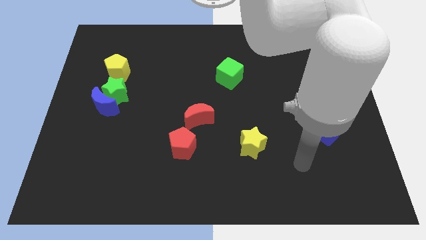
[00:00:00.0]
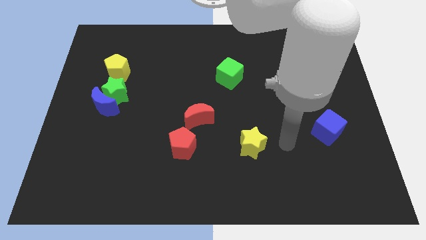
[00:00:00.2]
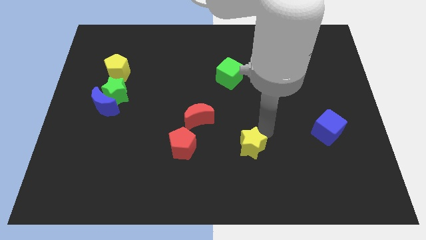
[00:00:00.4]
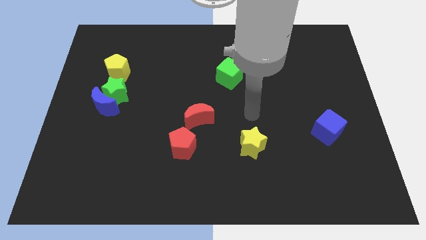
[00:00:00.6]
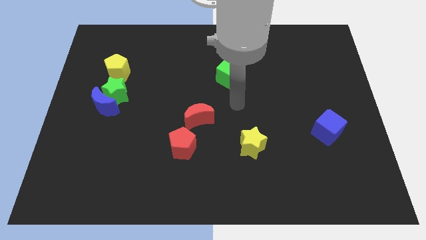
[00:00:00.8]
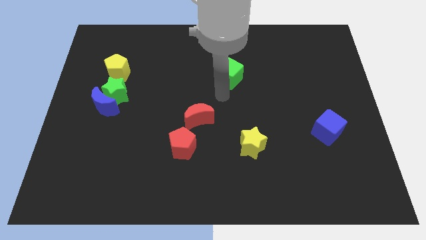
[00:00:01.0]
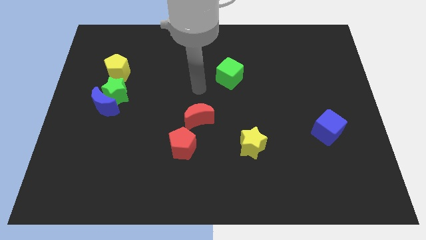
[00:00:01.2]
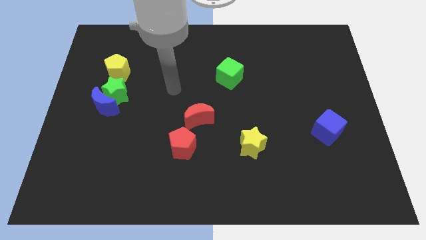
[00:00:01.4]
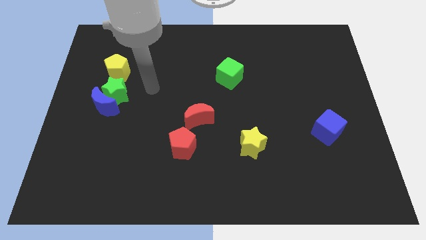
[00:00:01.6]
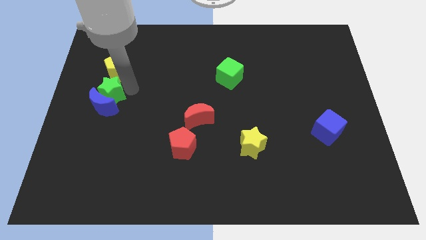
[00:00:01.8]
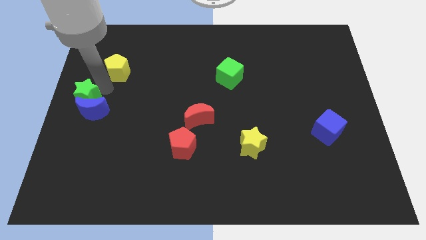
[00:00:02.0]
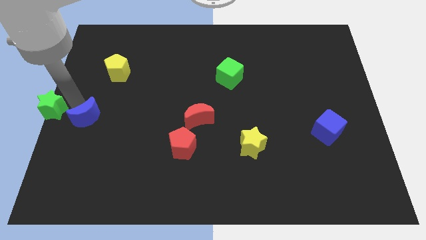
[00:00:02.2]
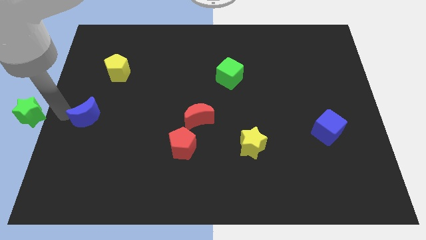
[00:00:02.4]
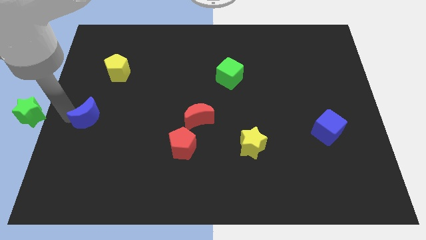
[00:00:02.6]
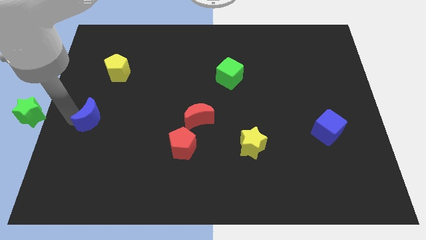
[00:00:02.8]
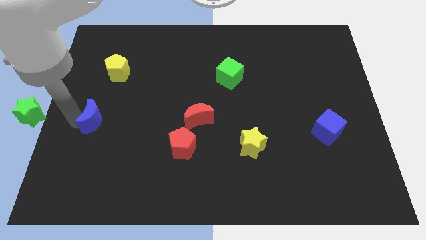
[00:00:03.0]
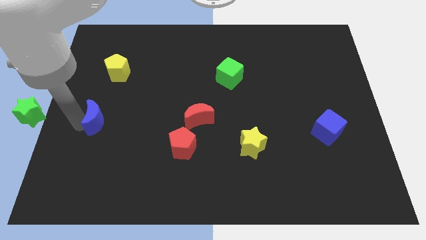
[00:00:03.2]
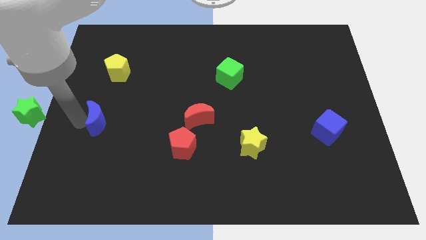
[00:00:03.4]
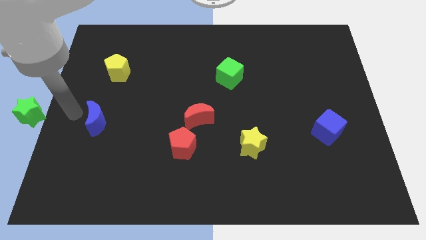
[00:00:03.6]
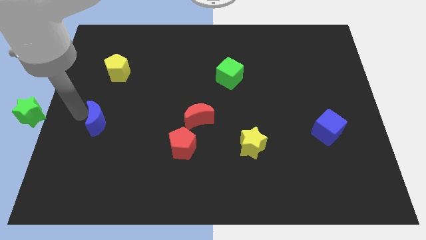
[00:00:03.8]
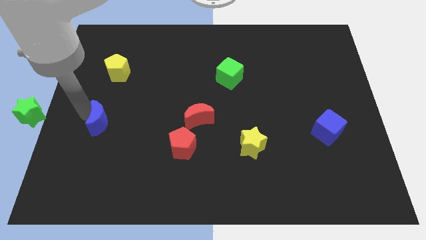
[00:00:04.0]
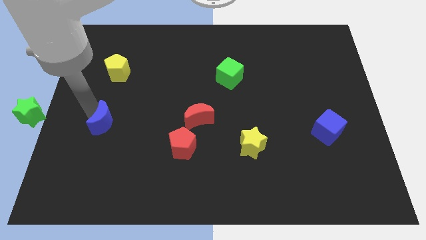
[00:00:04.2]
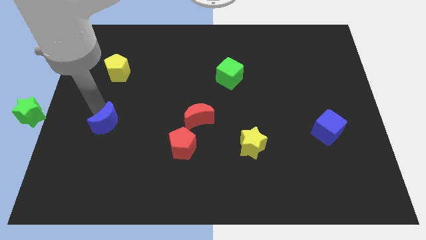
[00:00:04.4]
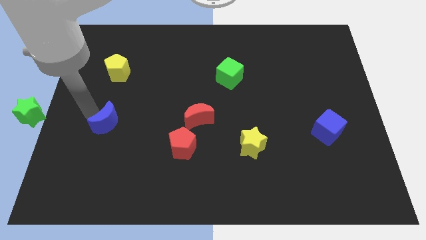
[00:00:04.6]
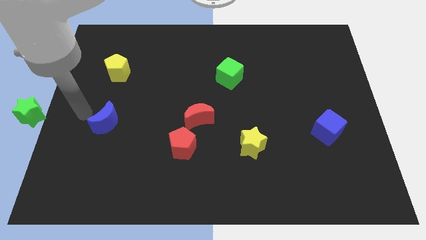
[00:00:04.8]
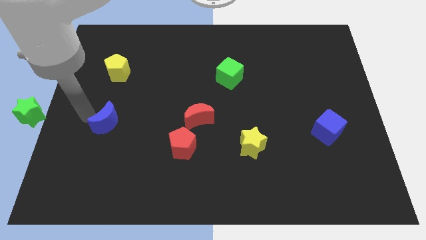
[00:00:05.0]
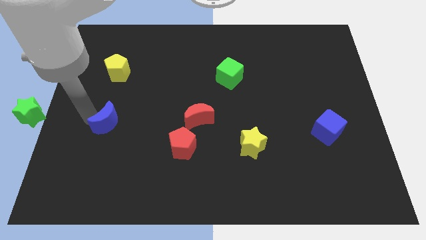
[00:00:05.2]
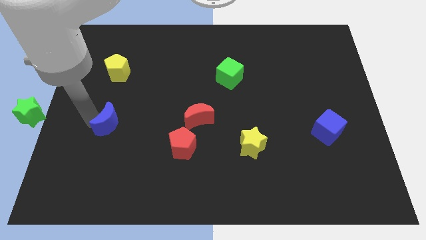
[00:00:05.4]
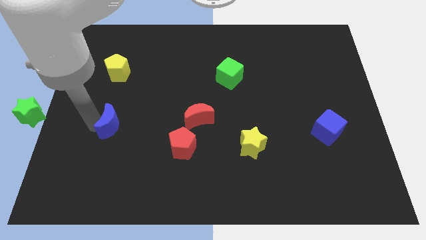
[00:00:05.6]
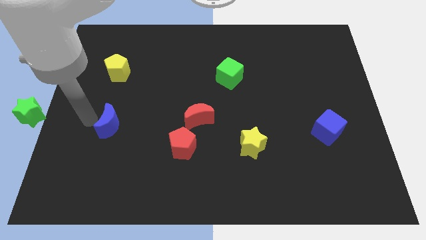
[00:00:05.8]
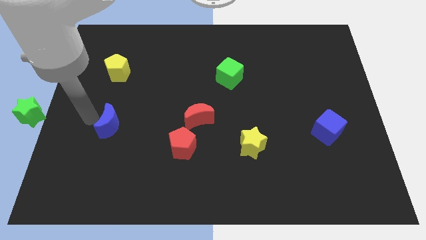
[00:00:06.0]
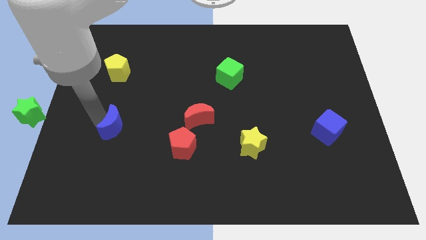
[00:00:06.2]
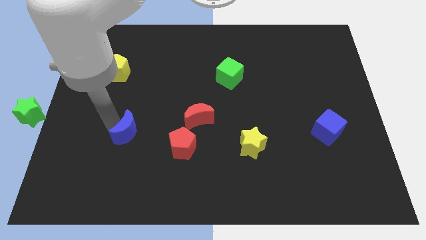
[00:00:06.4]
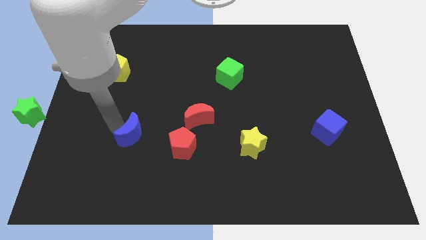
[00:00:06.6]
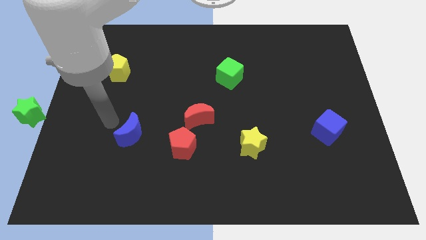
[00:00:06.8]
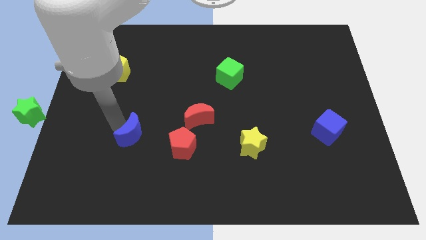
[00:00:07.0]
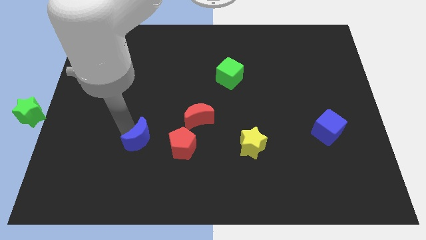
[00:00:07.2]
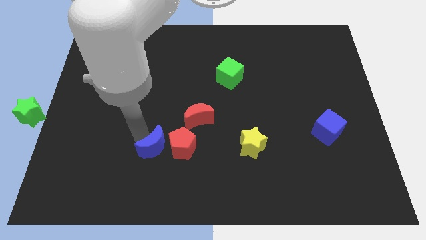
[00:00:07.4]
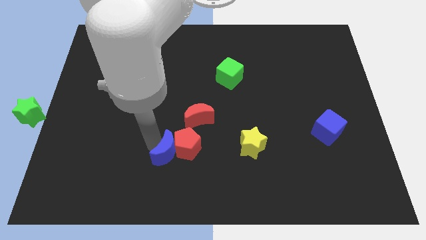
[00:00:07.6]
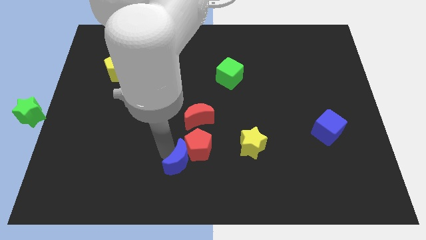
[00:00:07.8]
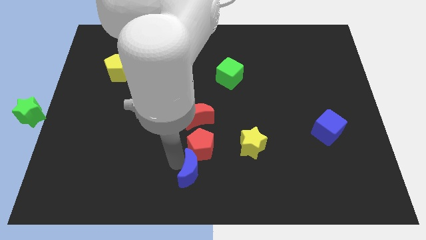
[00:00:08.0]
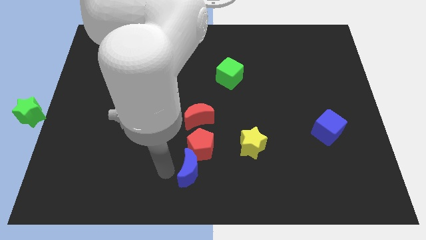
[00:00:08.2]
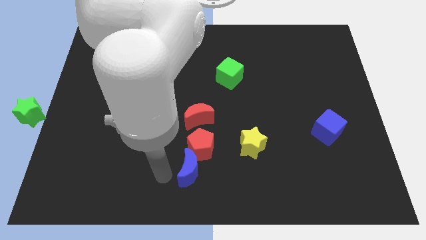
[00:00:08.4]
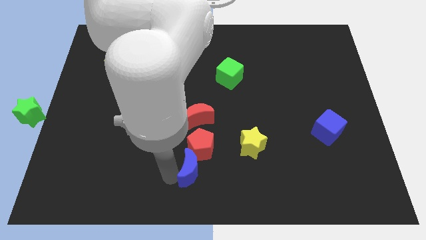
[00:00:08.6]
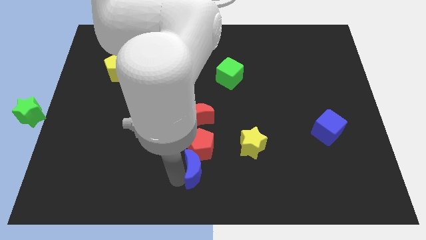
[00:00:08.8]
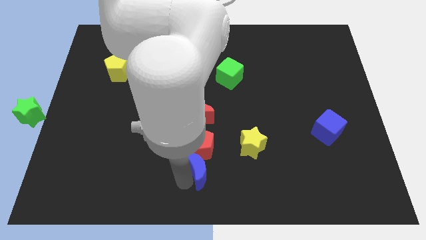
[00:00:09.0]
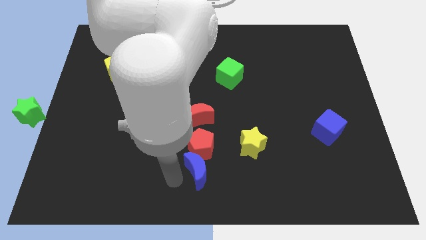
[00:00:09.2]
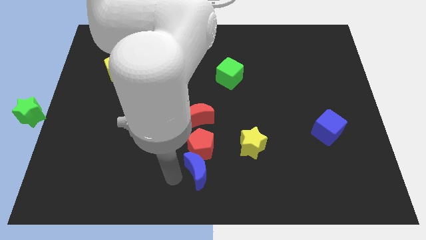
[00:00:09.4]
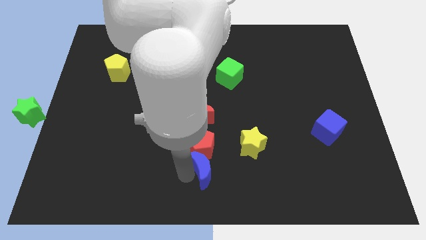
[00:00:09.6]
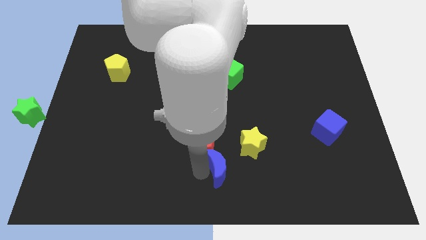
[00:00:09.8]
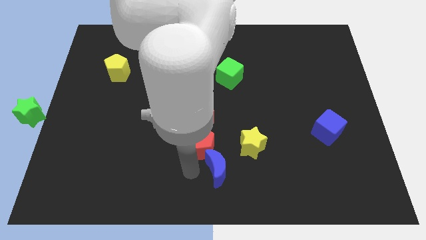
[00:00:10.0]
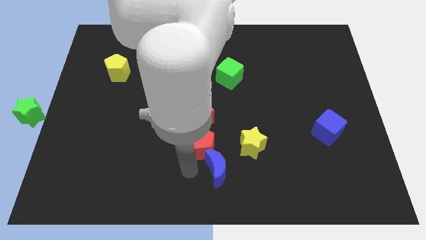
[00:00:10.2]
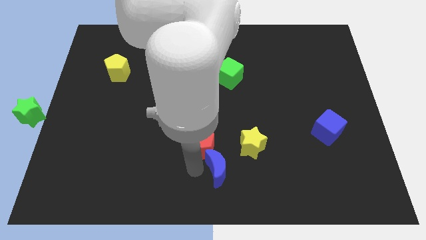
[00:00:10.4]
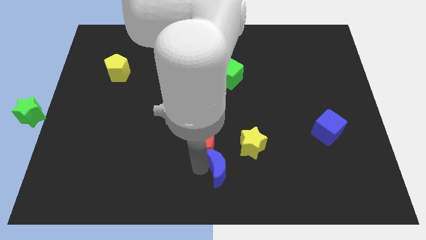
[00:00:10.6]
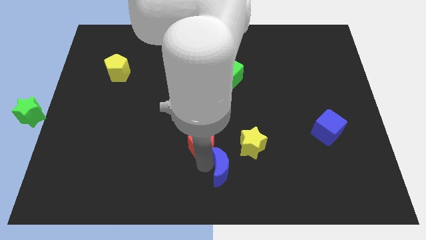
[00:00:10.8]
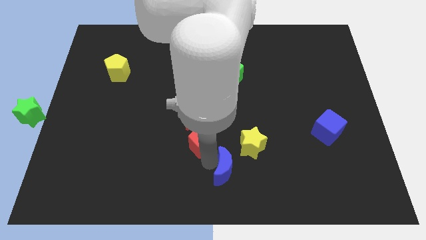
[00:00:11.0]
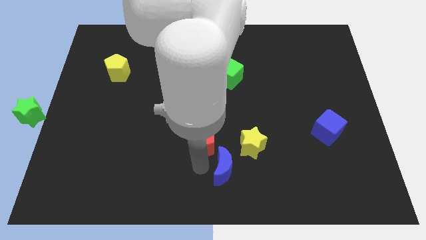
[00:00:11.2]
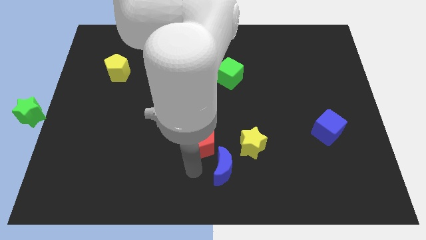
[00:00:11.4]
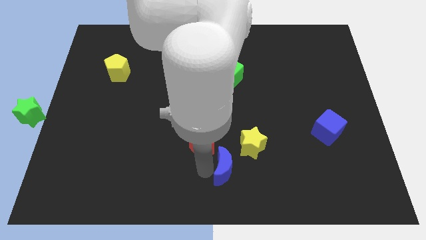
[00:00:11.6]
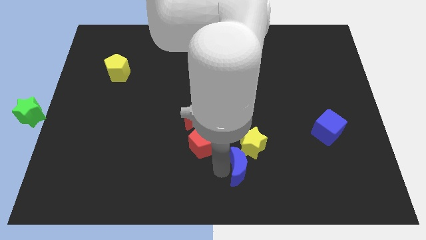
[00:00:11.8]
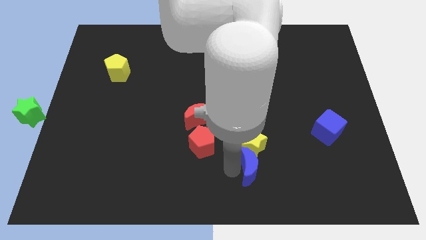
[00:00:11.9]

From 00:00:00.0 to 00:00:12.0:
move the blue moon to the bottom right of the yellow star
